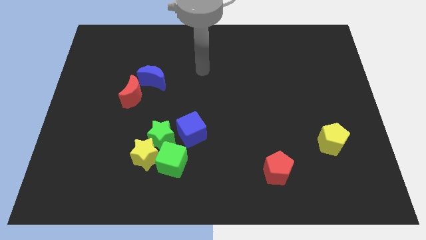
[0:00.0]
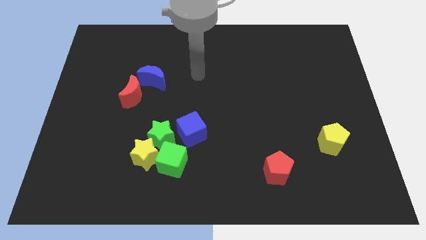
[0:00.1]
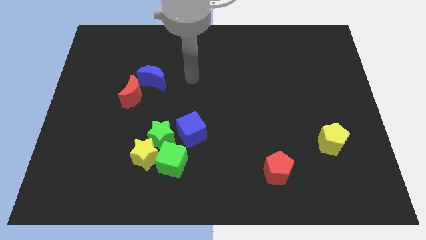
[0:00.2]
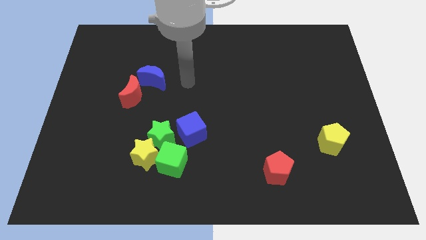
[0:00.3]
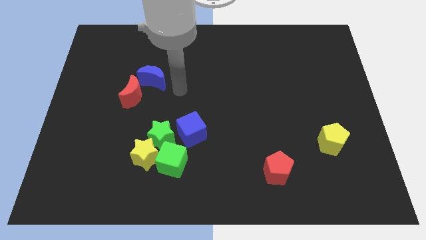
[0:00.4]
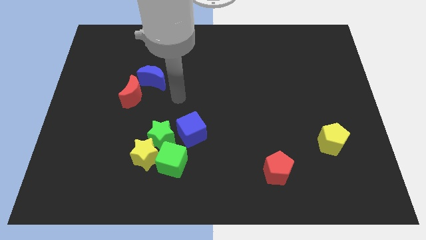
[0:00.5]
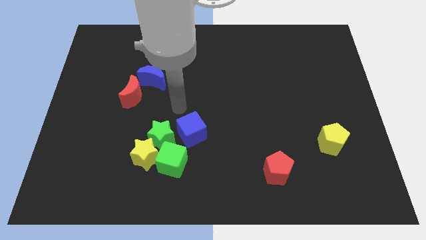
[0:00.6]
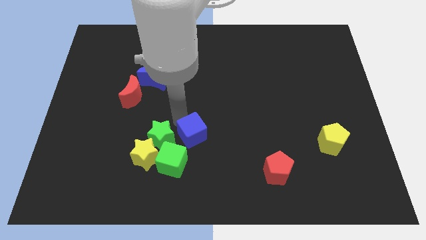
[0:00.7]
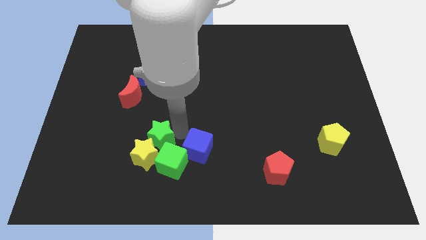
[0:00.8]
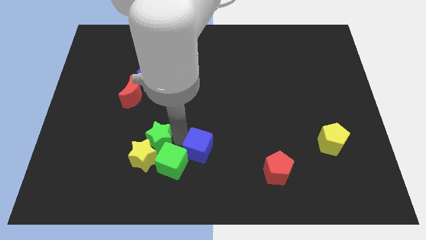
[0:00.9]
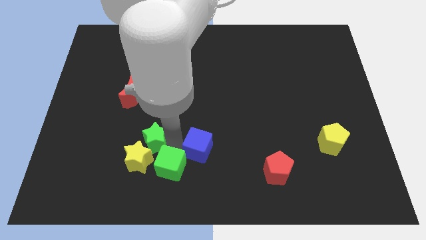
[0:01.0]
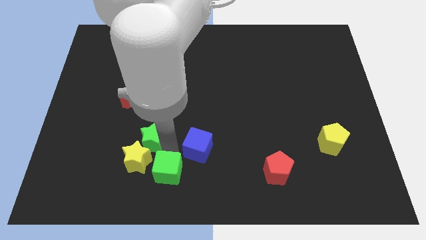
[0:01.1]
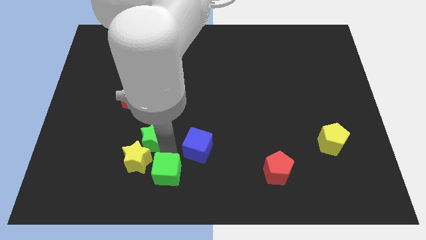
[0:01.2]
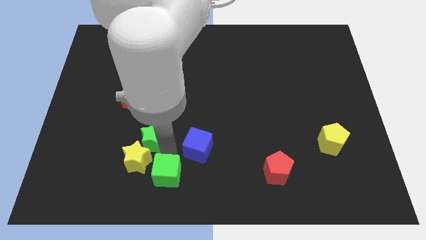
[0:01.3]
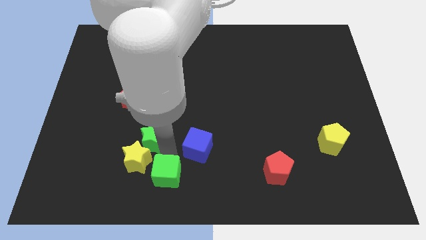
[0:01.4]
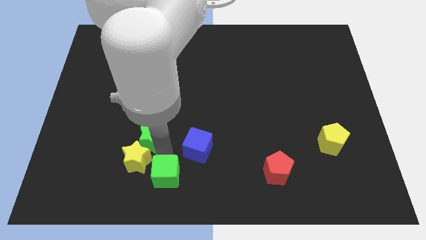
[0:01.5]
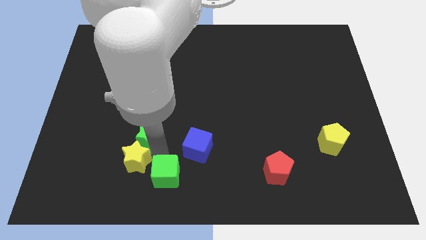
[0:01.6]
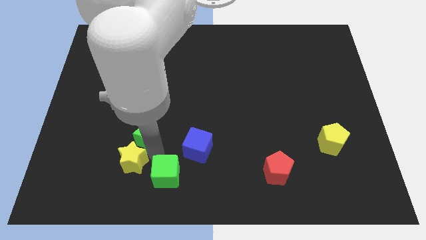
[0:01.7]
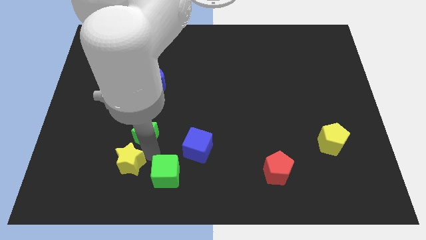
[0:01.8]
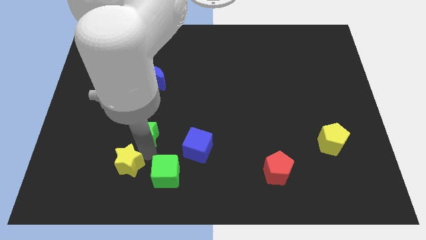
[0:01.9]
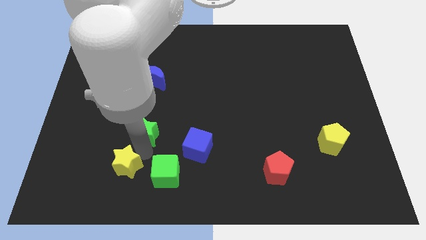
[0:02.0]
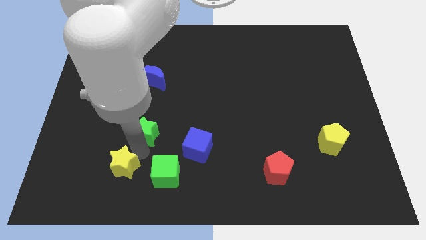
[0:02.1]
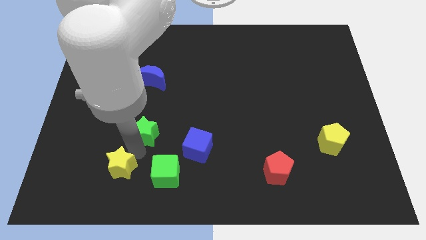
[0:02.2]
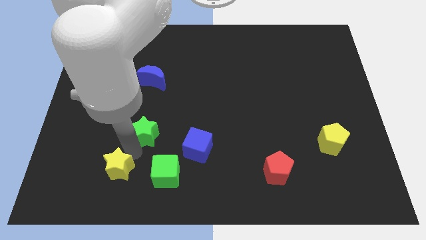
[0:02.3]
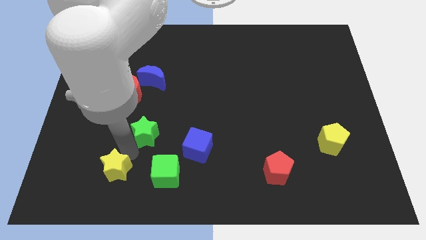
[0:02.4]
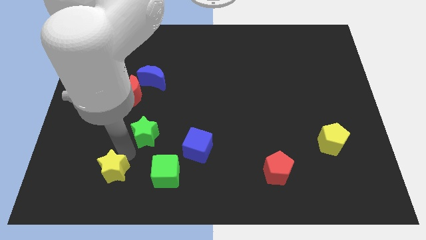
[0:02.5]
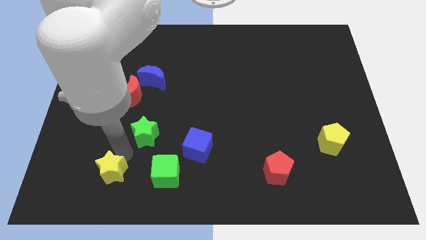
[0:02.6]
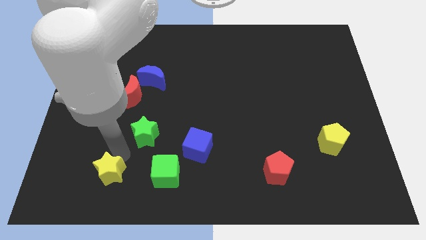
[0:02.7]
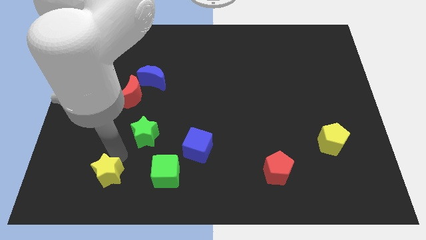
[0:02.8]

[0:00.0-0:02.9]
pull the yellow star apart from the green star and green cube

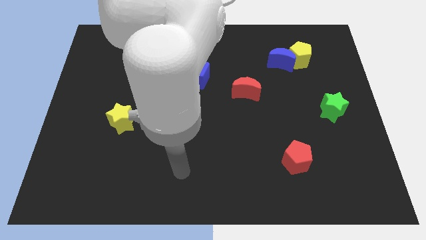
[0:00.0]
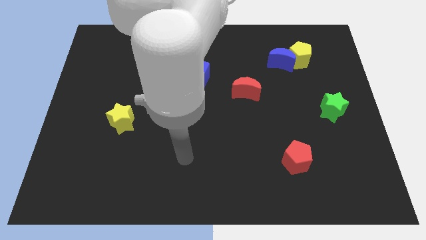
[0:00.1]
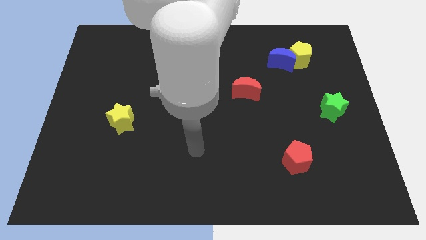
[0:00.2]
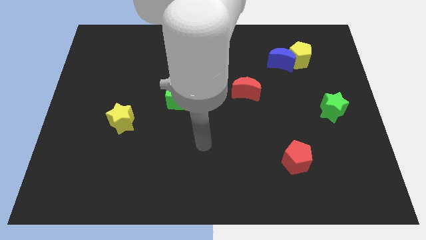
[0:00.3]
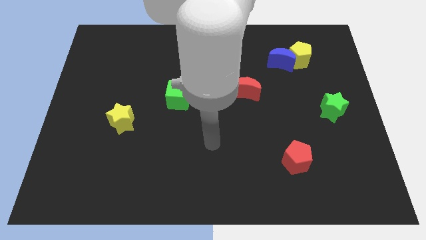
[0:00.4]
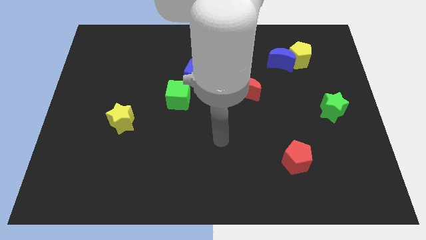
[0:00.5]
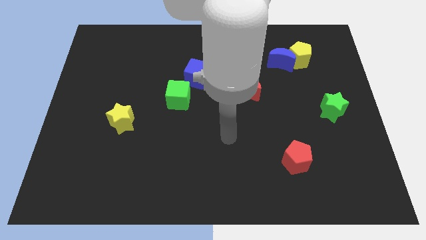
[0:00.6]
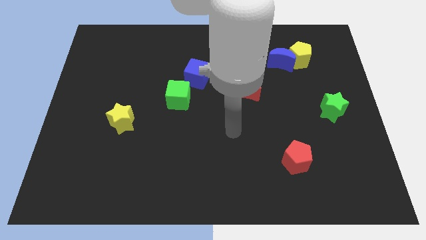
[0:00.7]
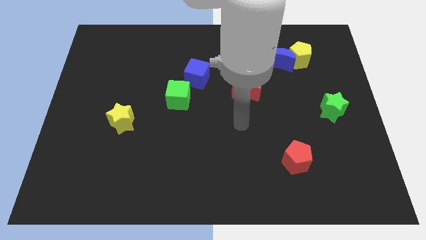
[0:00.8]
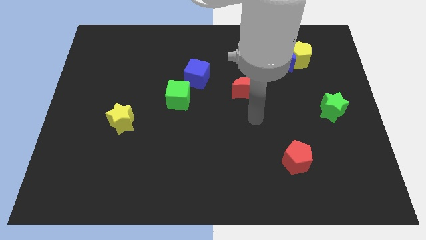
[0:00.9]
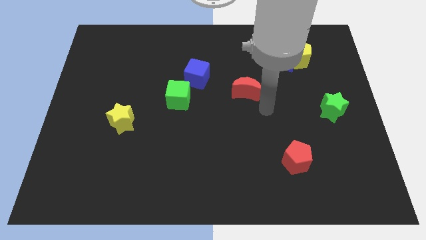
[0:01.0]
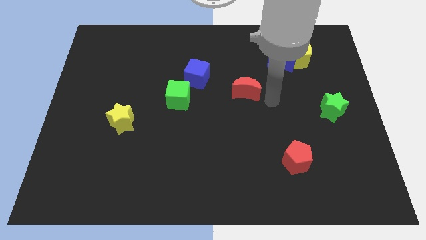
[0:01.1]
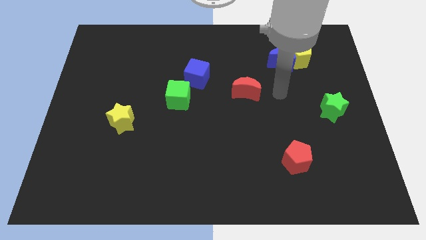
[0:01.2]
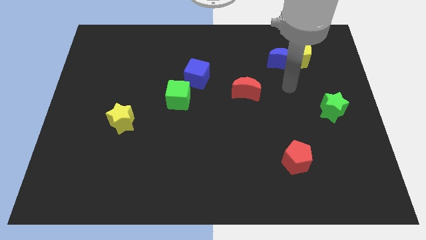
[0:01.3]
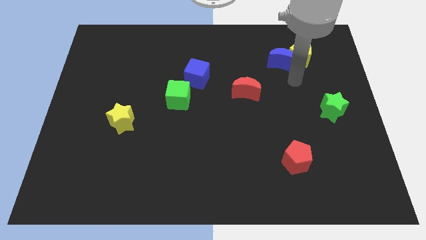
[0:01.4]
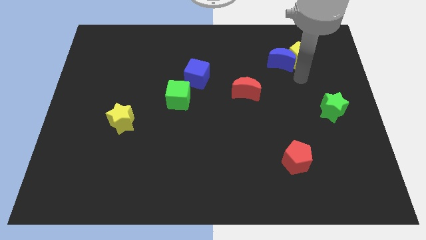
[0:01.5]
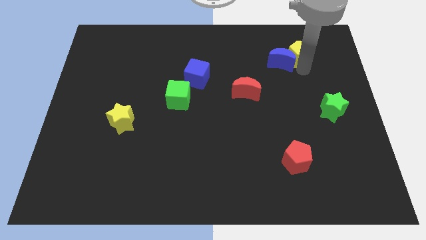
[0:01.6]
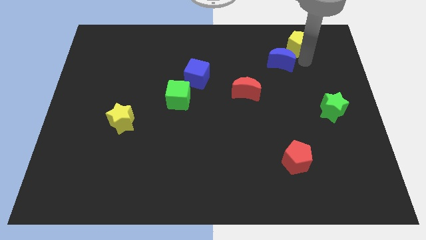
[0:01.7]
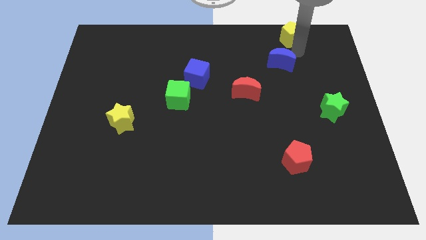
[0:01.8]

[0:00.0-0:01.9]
separate the blue moon from the yellow pentagon

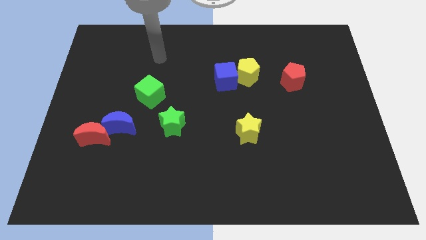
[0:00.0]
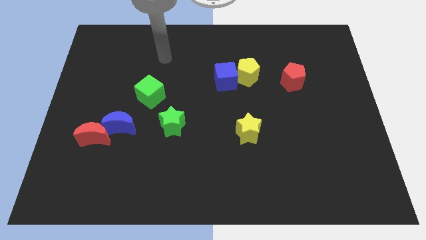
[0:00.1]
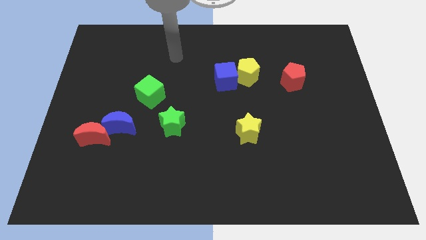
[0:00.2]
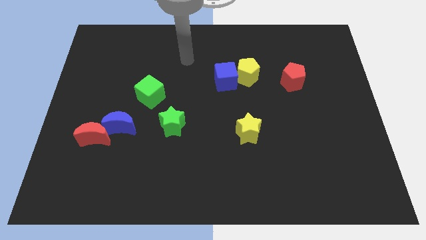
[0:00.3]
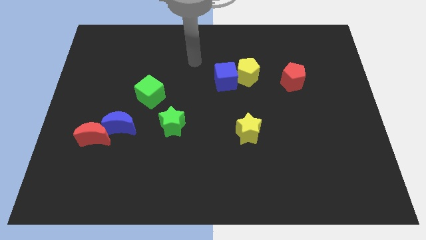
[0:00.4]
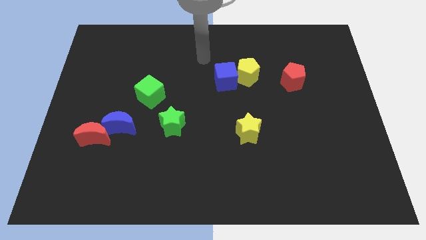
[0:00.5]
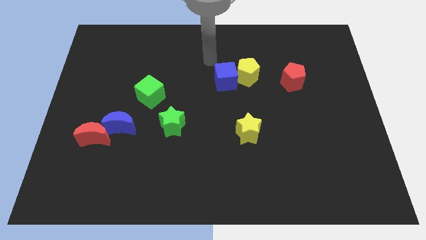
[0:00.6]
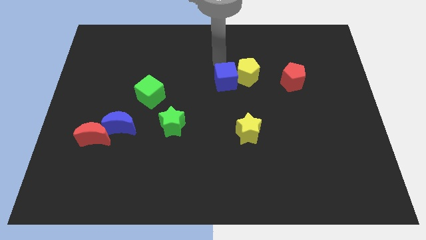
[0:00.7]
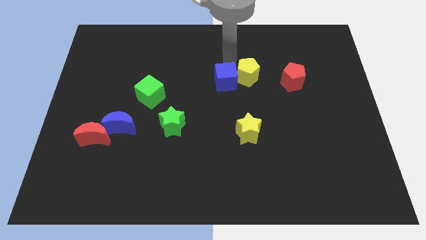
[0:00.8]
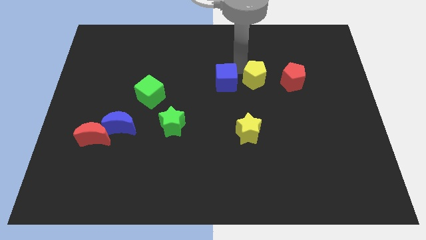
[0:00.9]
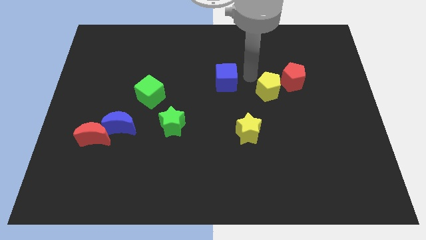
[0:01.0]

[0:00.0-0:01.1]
pull the blue cube apart from the yellow pentagon

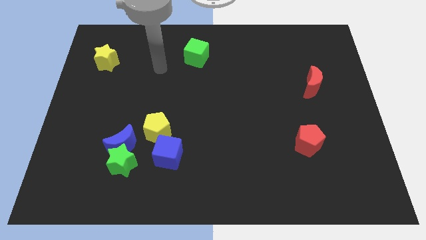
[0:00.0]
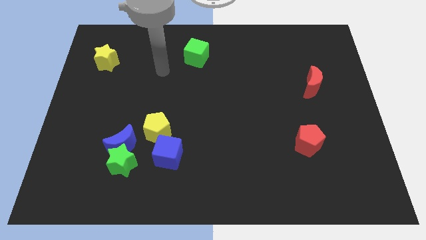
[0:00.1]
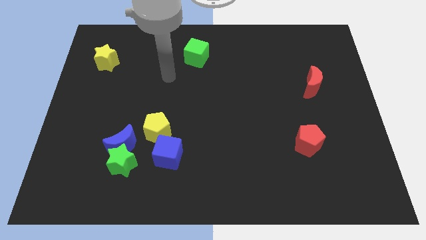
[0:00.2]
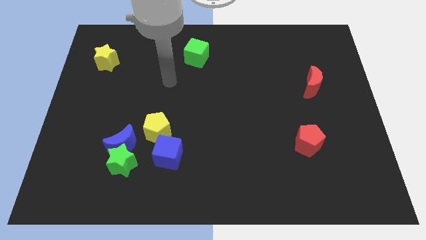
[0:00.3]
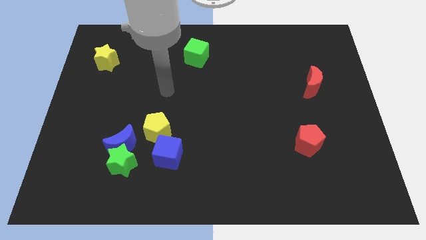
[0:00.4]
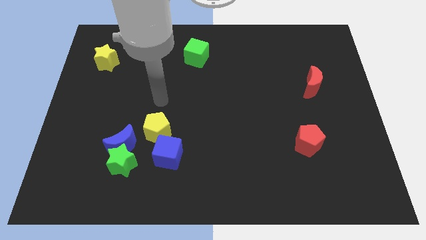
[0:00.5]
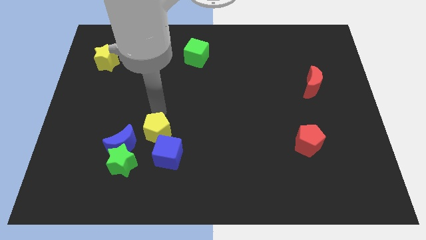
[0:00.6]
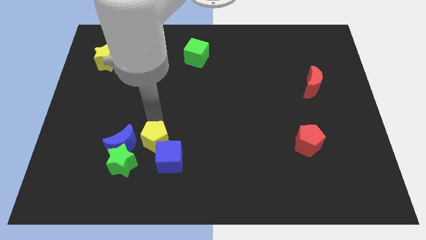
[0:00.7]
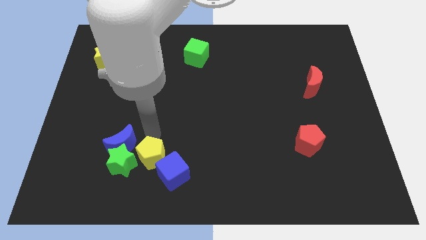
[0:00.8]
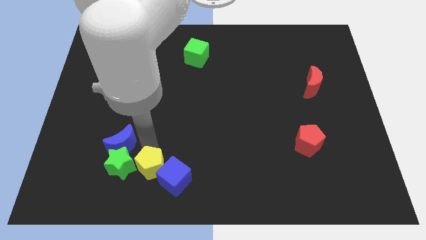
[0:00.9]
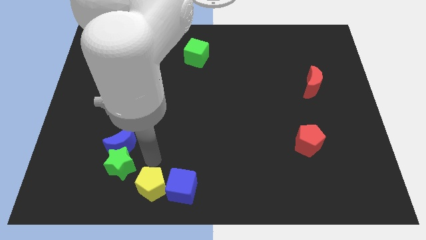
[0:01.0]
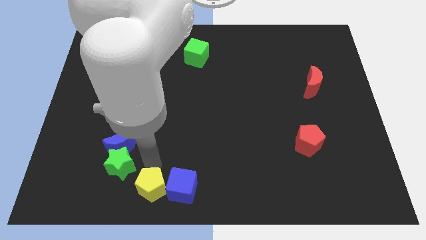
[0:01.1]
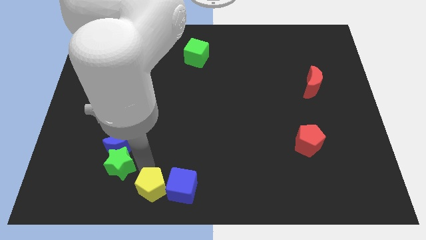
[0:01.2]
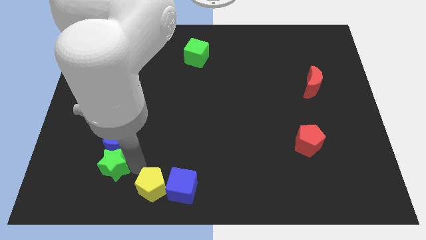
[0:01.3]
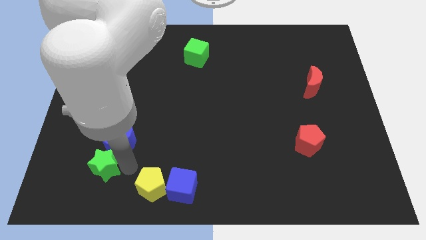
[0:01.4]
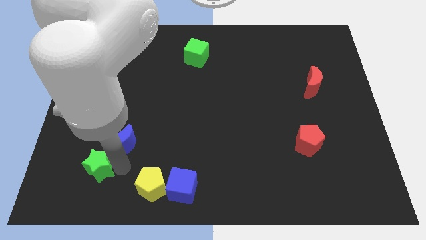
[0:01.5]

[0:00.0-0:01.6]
separate the green star from the blue moon and blue cube

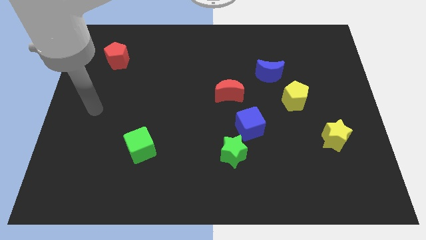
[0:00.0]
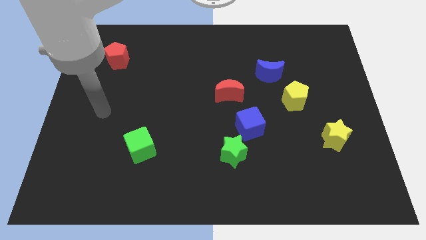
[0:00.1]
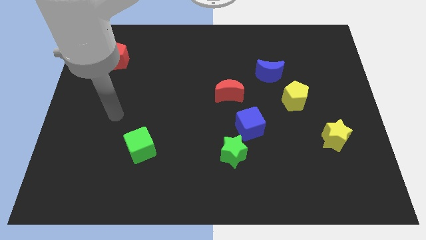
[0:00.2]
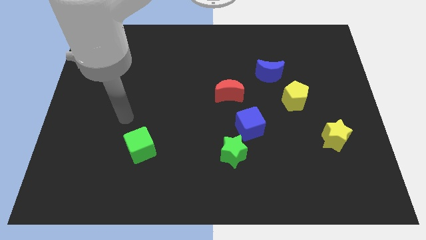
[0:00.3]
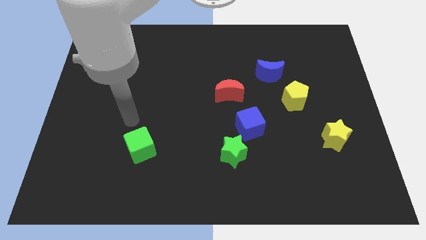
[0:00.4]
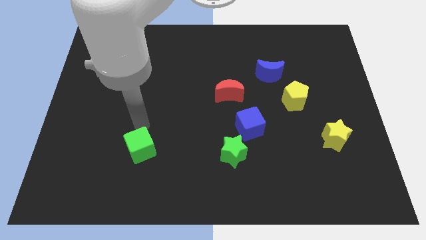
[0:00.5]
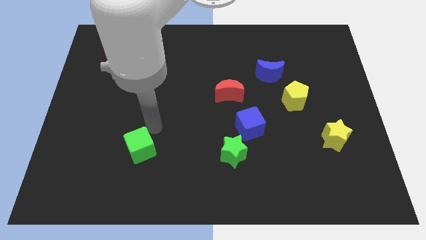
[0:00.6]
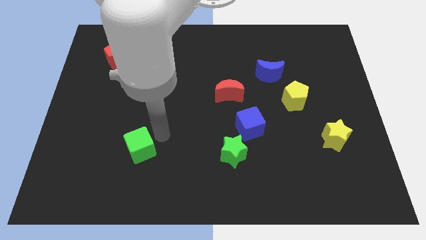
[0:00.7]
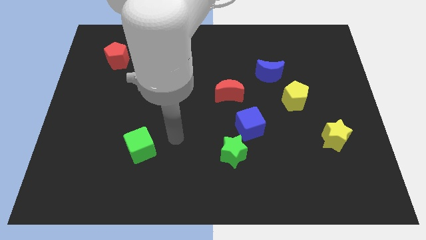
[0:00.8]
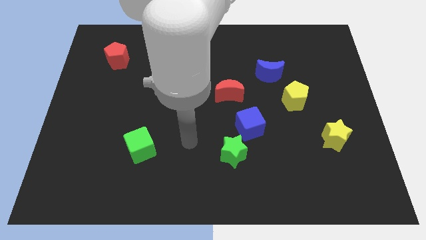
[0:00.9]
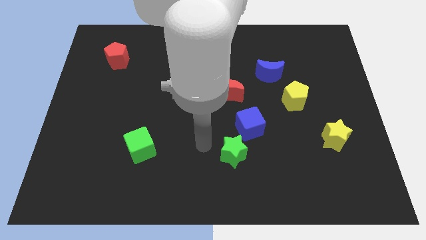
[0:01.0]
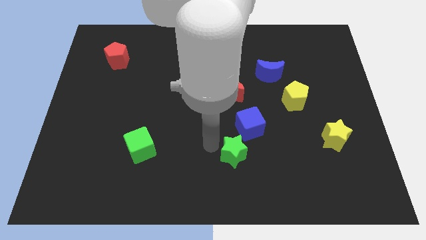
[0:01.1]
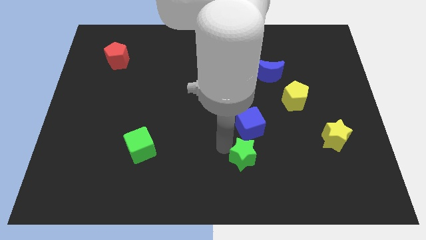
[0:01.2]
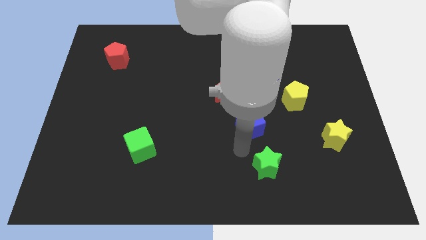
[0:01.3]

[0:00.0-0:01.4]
separate the blue cube from the green star

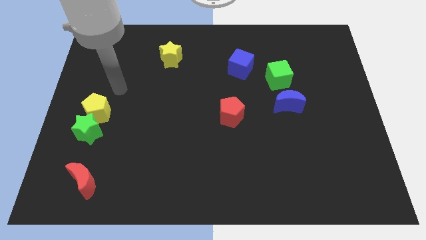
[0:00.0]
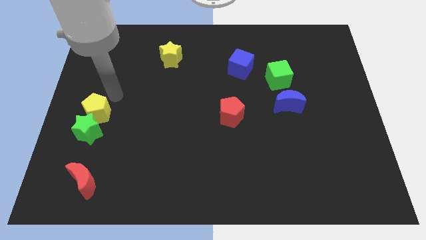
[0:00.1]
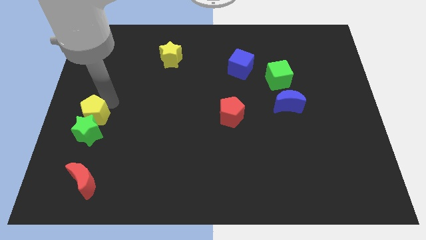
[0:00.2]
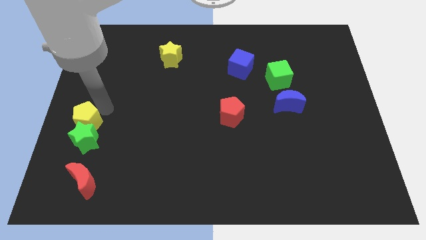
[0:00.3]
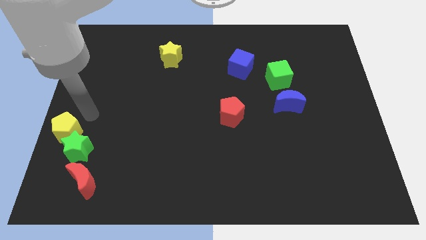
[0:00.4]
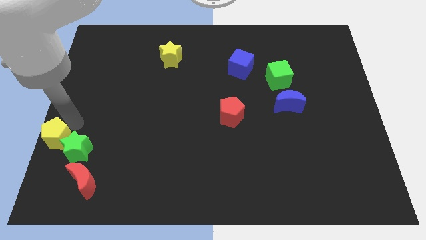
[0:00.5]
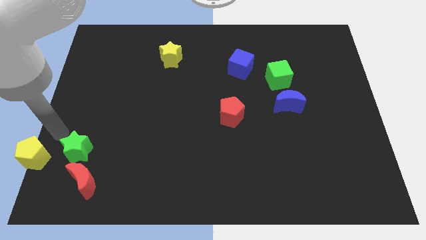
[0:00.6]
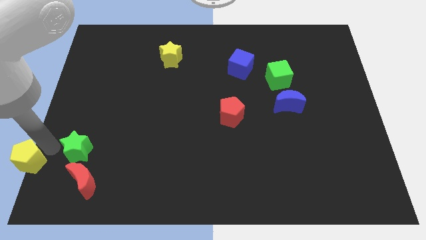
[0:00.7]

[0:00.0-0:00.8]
separate the green star from the yellow pentagon
